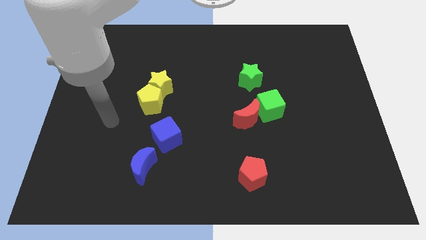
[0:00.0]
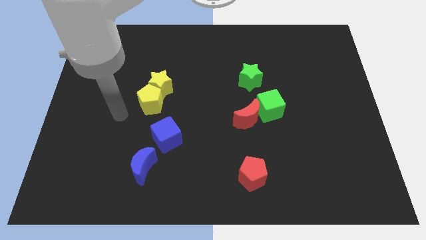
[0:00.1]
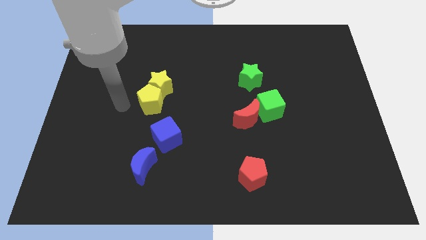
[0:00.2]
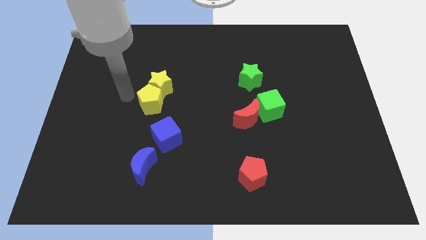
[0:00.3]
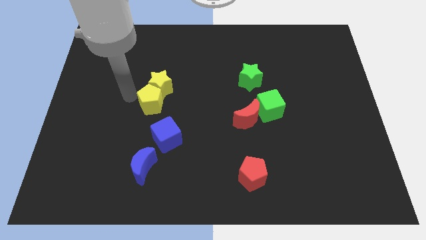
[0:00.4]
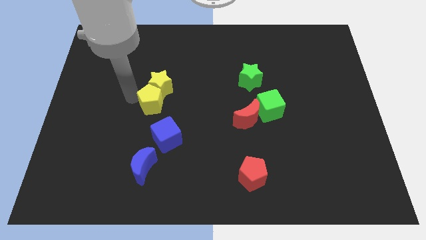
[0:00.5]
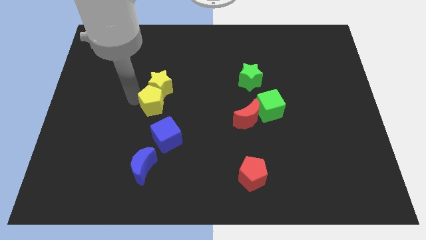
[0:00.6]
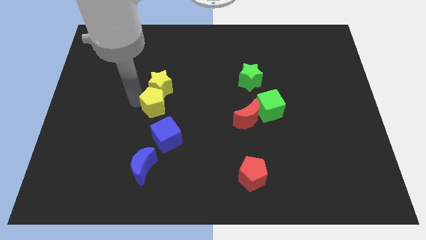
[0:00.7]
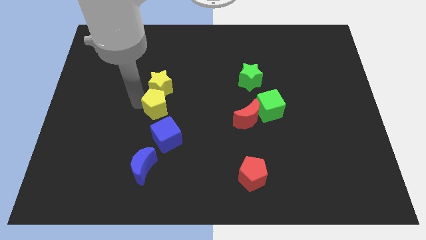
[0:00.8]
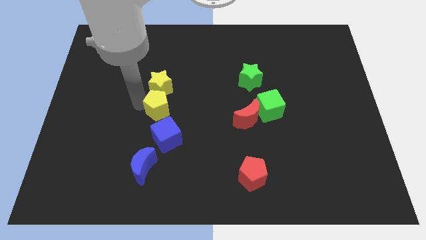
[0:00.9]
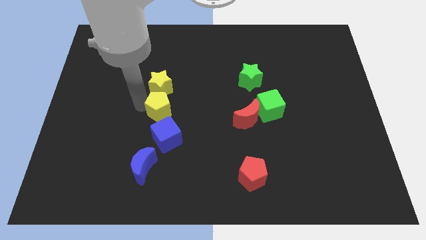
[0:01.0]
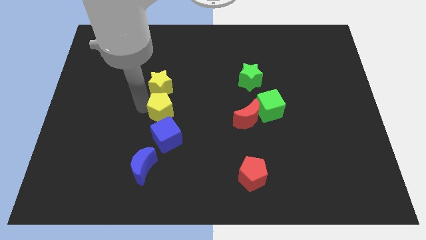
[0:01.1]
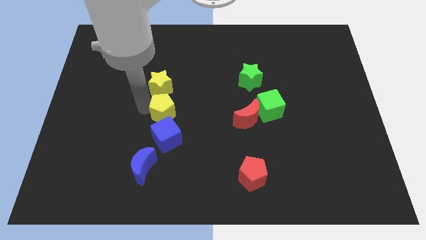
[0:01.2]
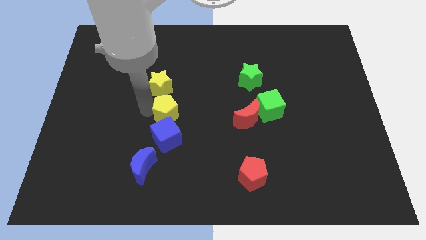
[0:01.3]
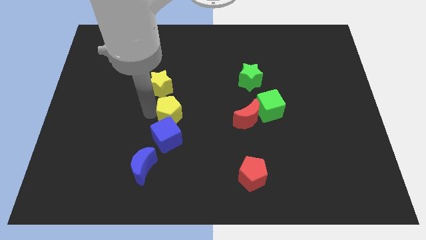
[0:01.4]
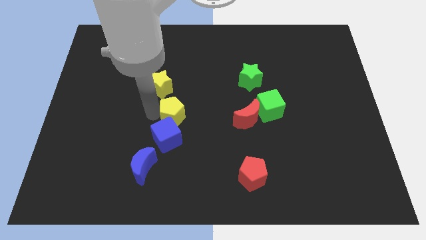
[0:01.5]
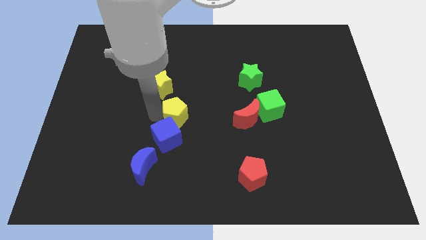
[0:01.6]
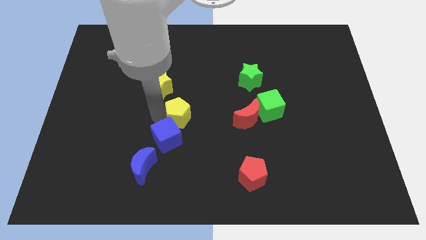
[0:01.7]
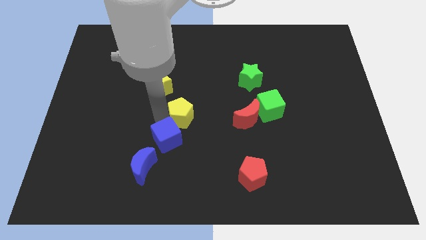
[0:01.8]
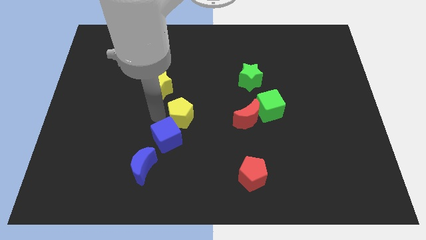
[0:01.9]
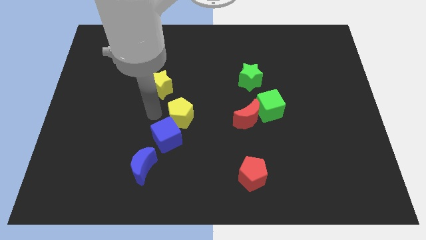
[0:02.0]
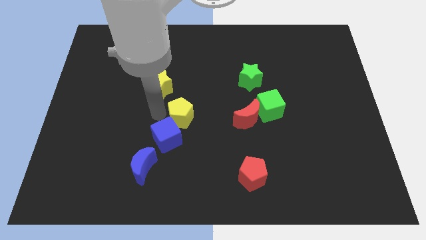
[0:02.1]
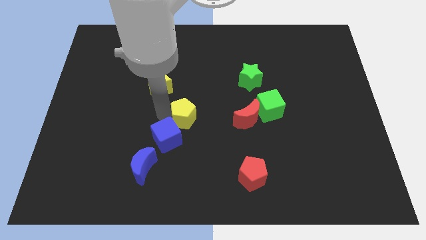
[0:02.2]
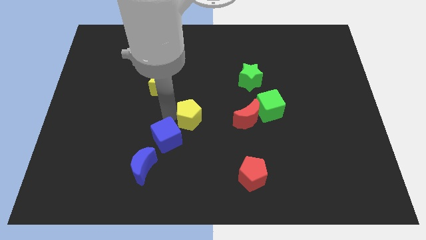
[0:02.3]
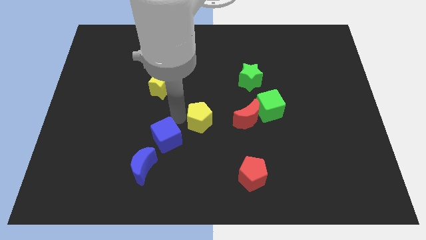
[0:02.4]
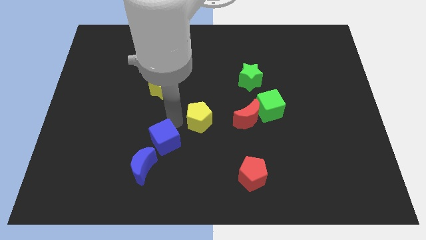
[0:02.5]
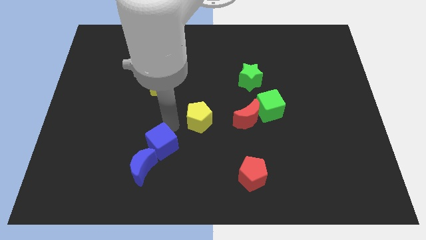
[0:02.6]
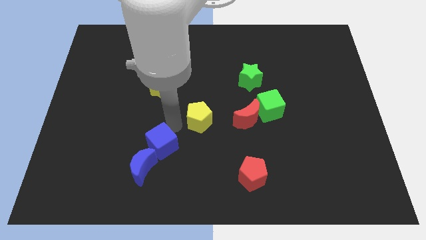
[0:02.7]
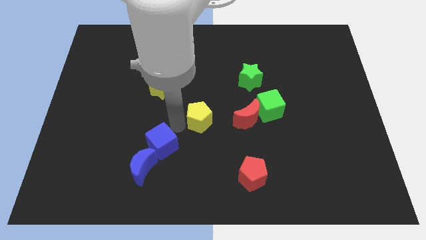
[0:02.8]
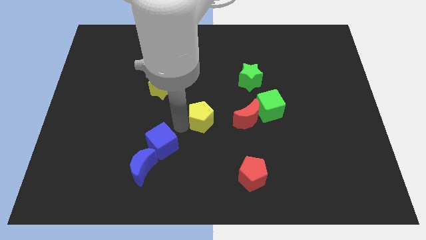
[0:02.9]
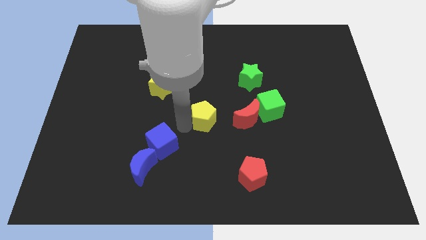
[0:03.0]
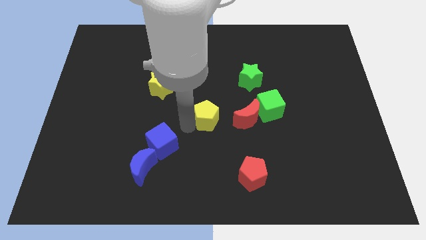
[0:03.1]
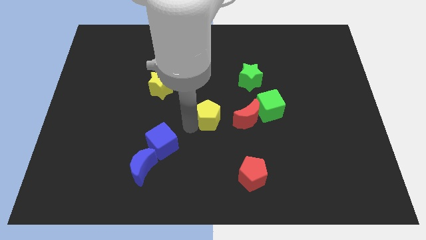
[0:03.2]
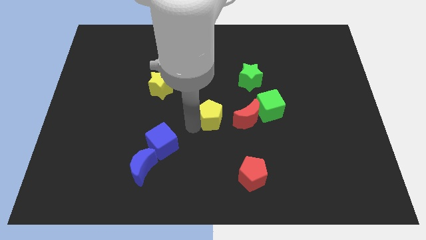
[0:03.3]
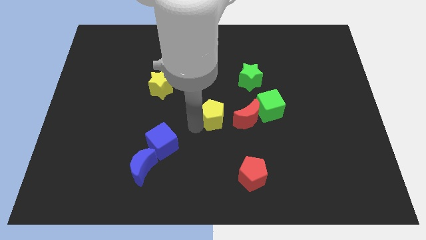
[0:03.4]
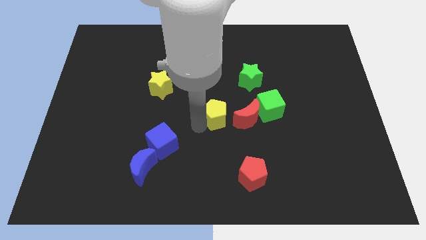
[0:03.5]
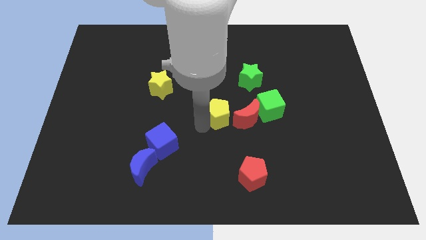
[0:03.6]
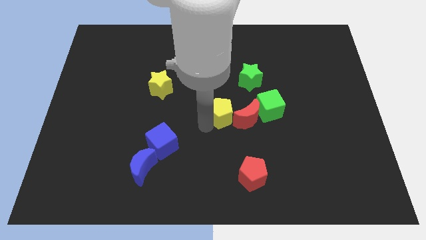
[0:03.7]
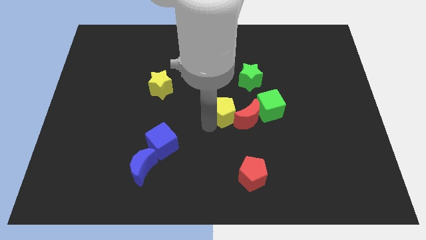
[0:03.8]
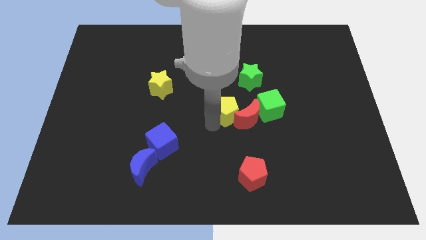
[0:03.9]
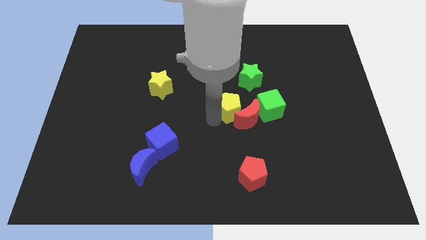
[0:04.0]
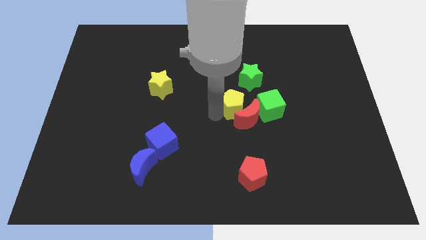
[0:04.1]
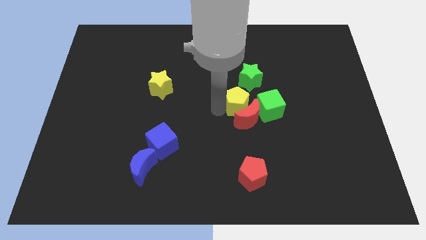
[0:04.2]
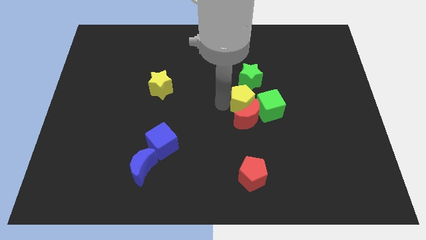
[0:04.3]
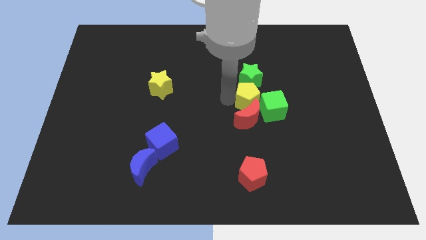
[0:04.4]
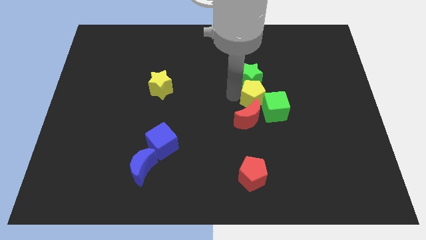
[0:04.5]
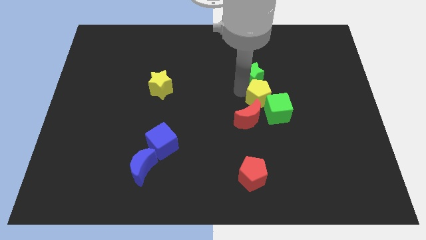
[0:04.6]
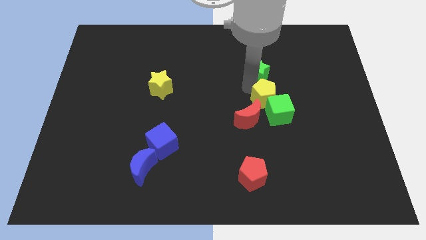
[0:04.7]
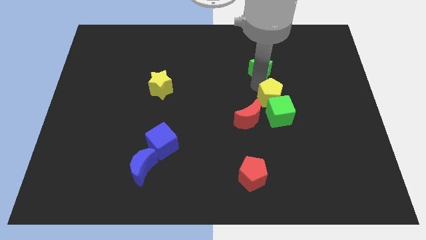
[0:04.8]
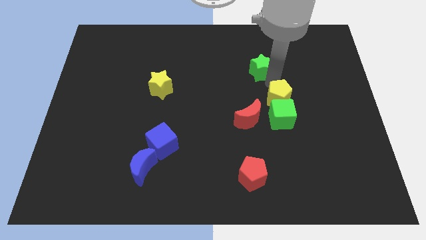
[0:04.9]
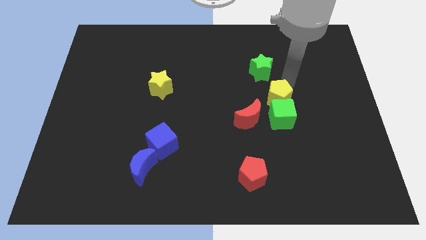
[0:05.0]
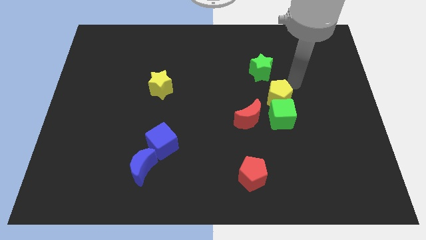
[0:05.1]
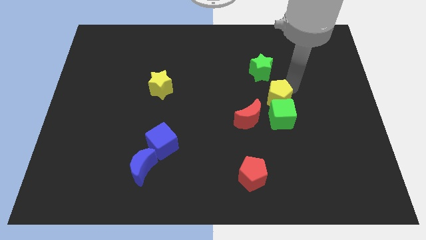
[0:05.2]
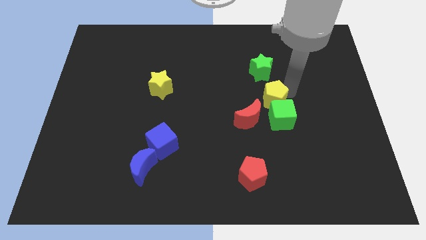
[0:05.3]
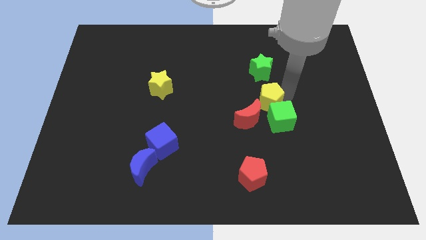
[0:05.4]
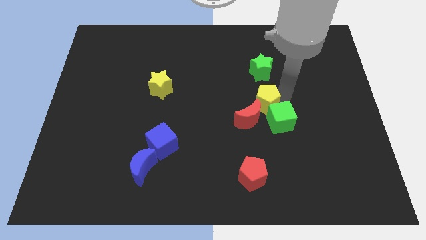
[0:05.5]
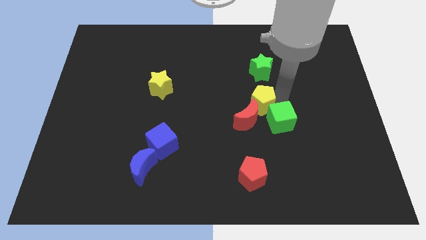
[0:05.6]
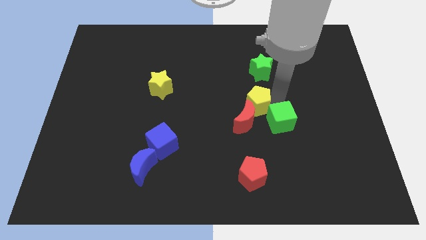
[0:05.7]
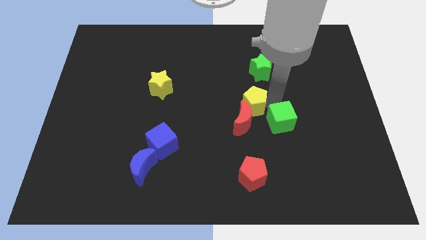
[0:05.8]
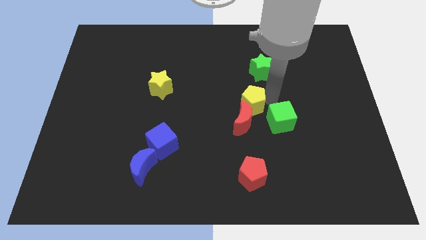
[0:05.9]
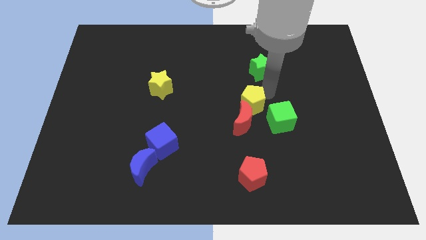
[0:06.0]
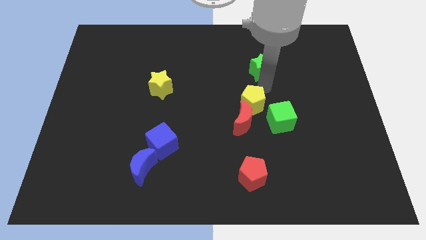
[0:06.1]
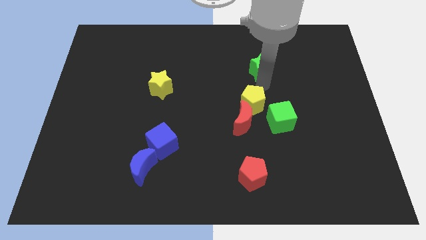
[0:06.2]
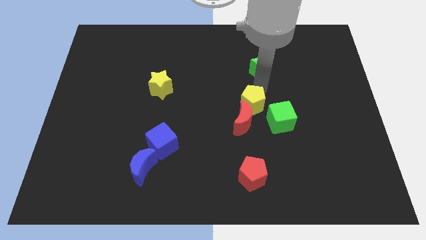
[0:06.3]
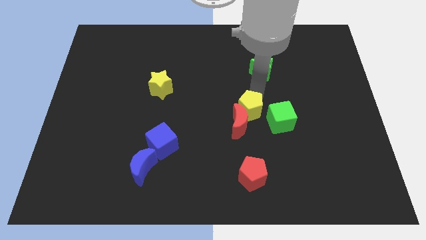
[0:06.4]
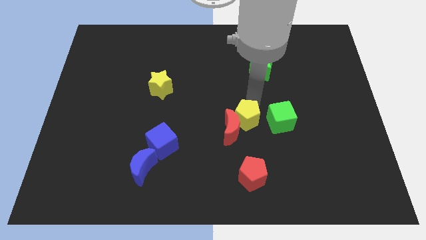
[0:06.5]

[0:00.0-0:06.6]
move the yellow pentagon to the top side of the red pentagon

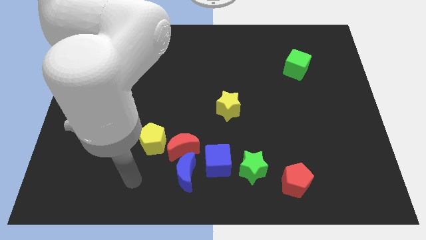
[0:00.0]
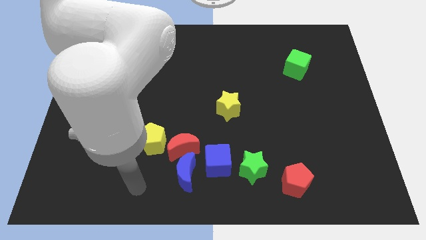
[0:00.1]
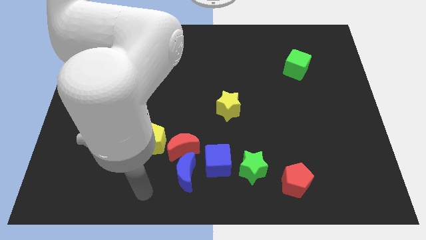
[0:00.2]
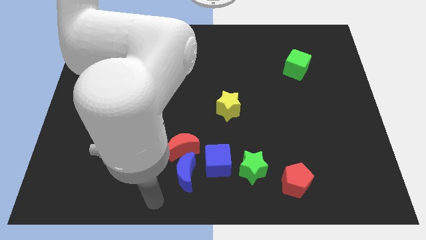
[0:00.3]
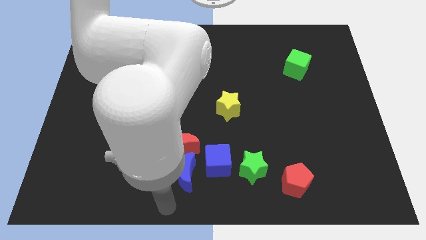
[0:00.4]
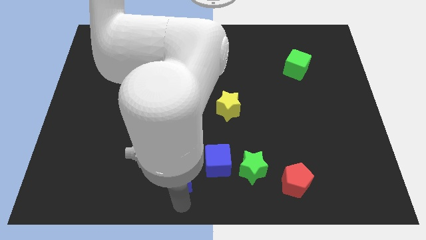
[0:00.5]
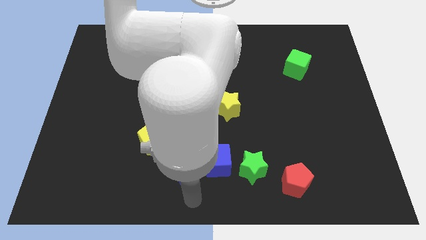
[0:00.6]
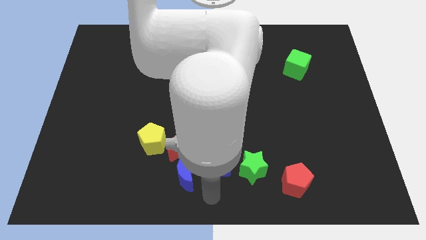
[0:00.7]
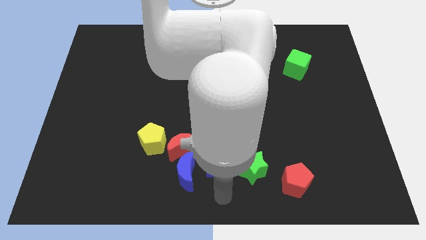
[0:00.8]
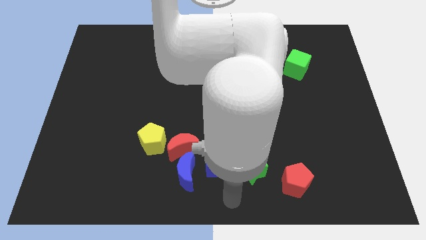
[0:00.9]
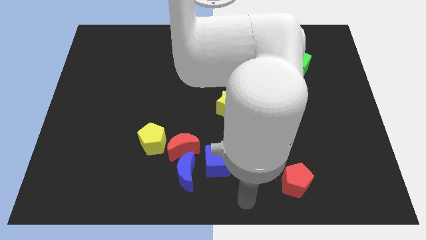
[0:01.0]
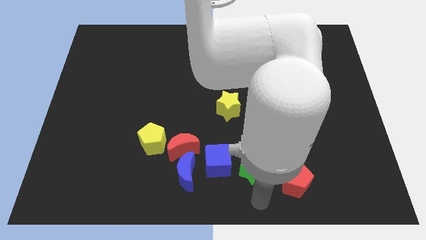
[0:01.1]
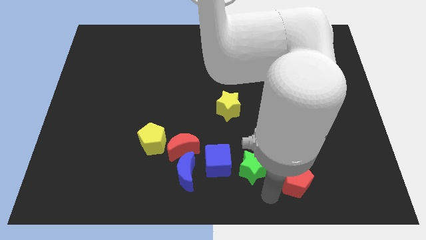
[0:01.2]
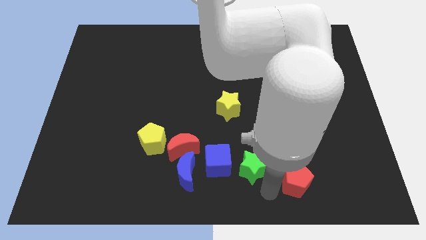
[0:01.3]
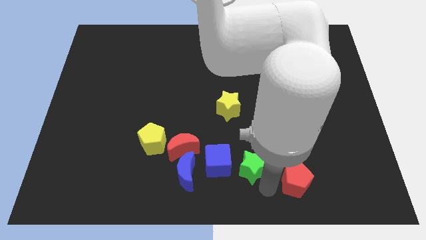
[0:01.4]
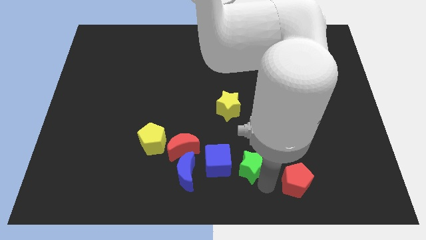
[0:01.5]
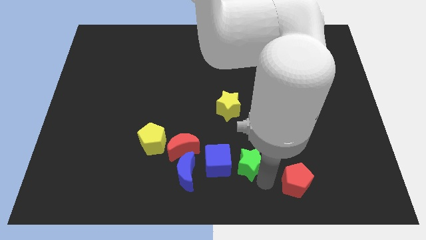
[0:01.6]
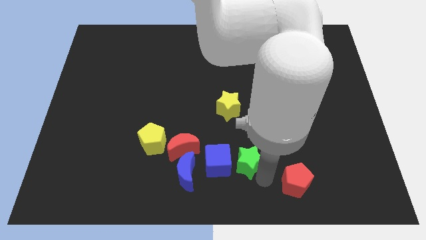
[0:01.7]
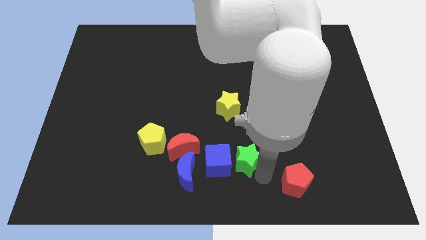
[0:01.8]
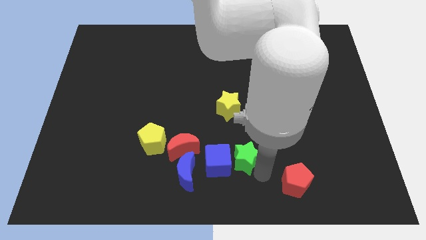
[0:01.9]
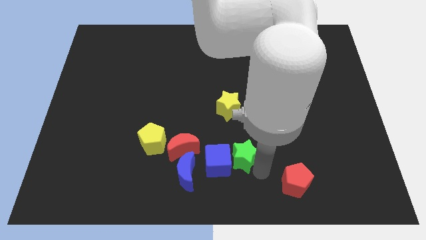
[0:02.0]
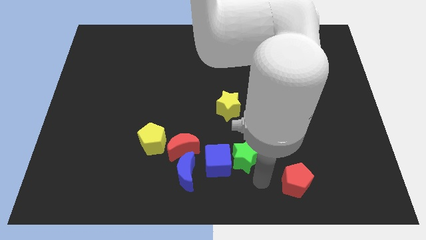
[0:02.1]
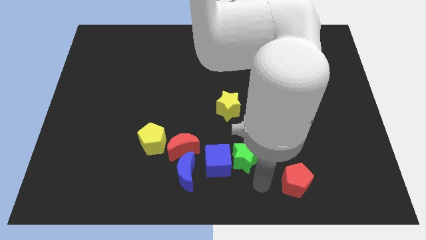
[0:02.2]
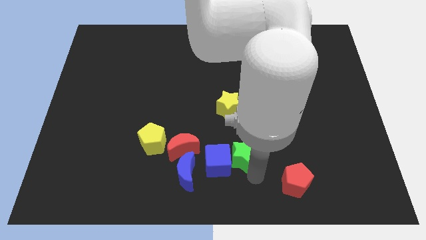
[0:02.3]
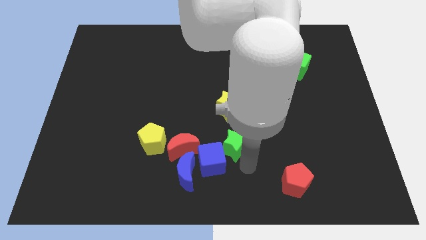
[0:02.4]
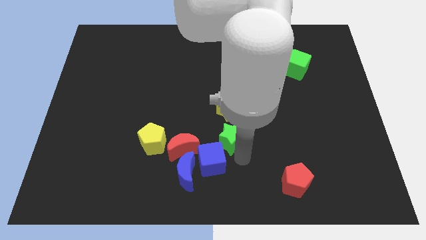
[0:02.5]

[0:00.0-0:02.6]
move the green star to the top side of the blue cube
